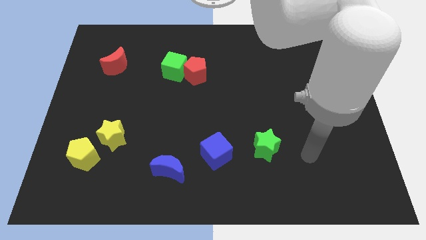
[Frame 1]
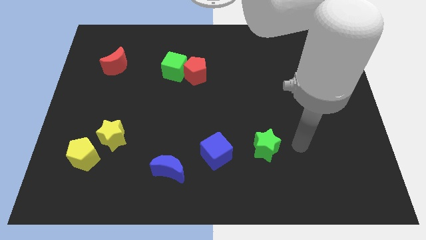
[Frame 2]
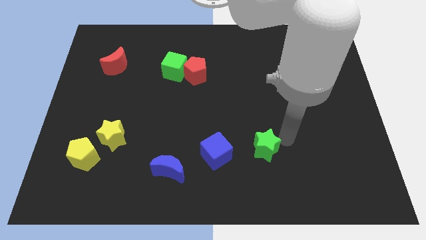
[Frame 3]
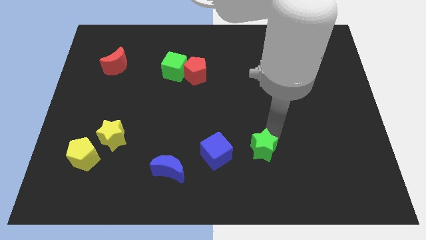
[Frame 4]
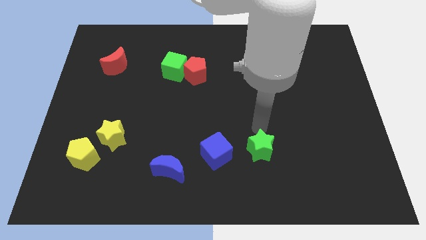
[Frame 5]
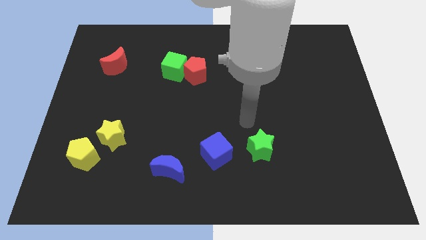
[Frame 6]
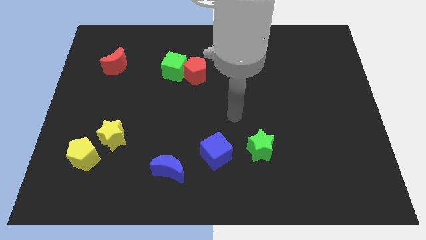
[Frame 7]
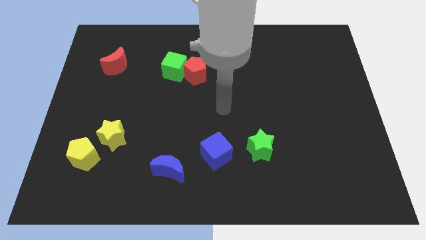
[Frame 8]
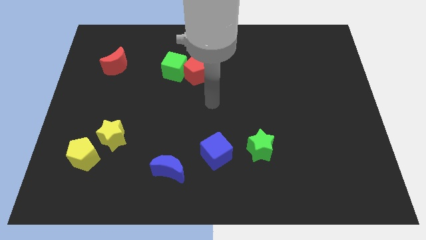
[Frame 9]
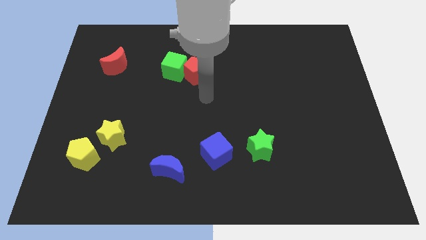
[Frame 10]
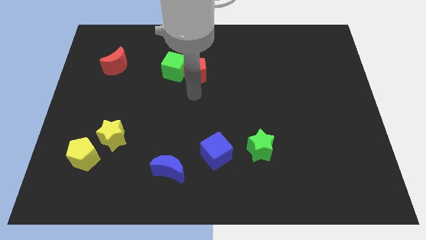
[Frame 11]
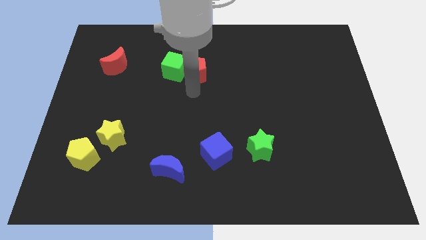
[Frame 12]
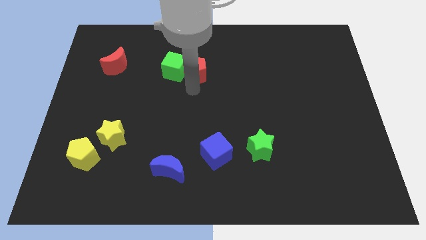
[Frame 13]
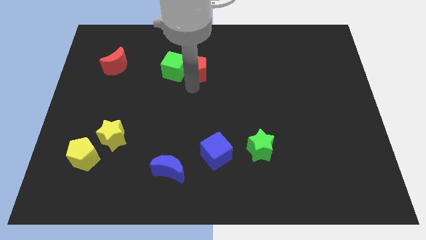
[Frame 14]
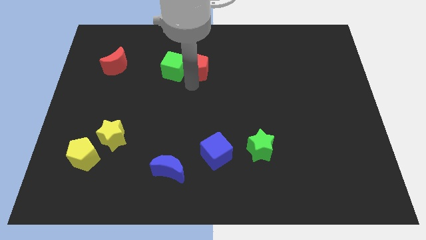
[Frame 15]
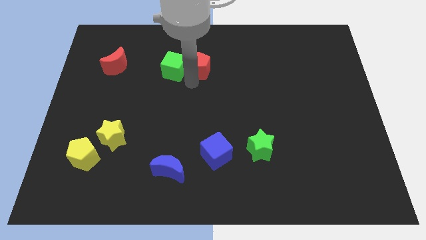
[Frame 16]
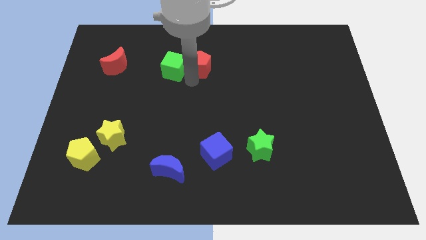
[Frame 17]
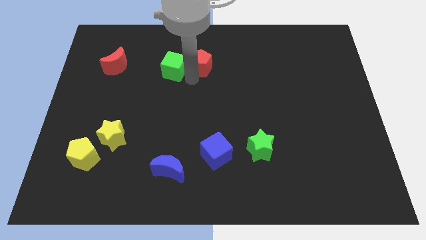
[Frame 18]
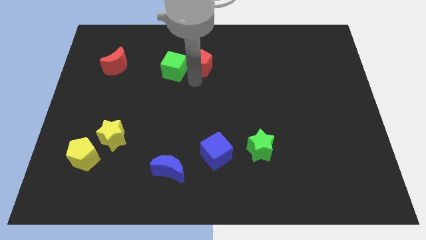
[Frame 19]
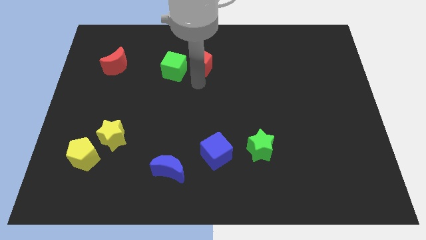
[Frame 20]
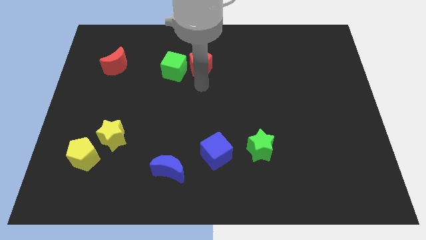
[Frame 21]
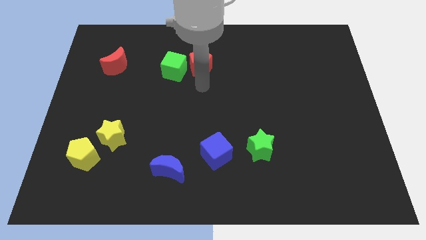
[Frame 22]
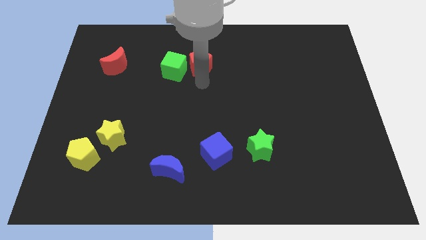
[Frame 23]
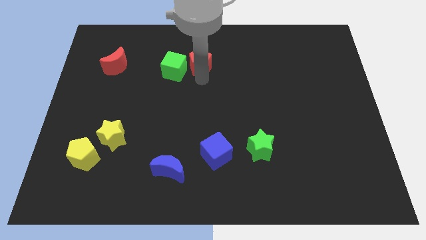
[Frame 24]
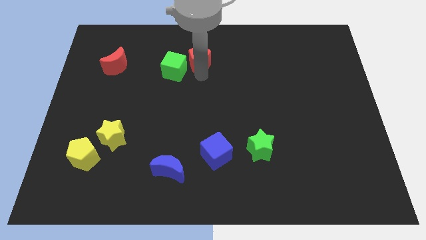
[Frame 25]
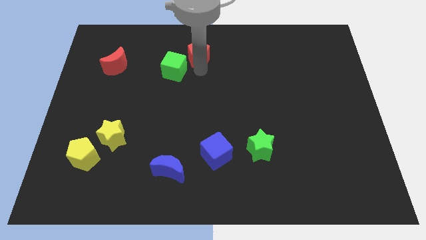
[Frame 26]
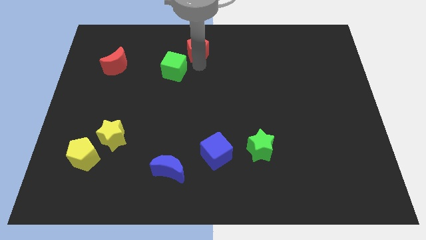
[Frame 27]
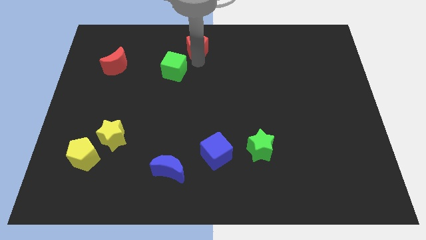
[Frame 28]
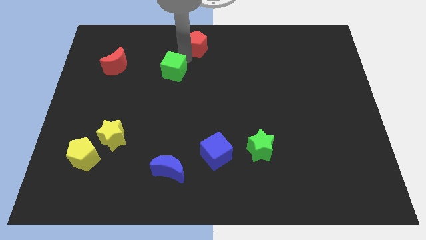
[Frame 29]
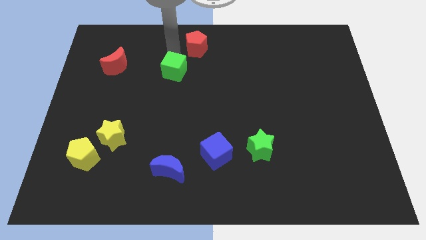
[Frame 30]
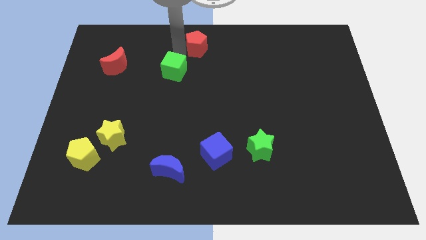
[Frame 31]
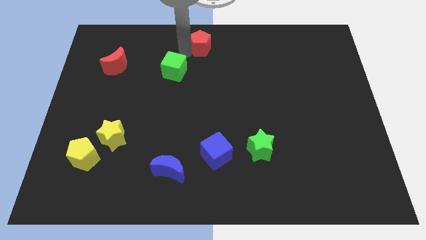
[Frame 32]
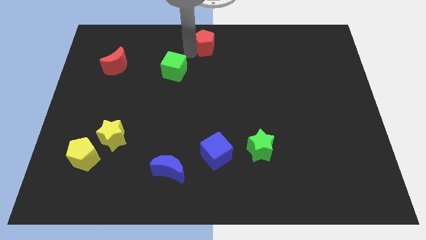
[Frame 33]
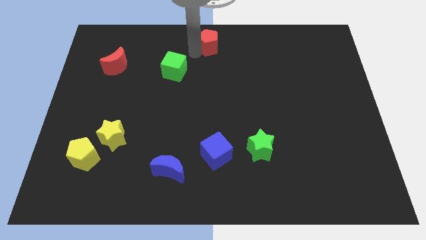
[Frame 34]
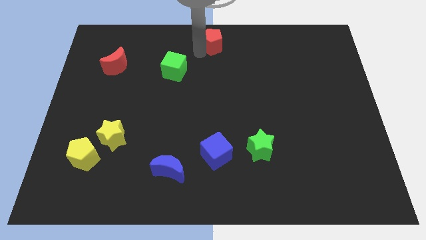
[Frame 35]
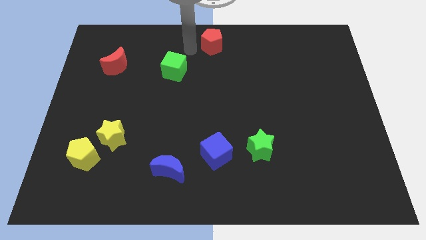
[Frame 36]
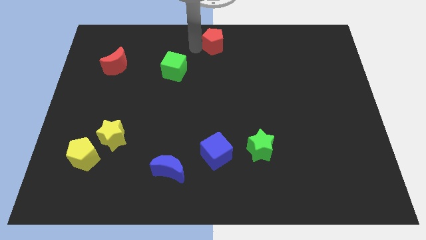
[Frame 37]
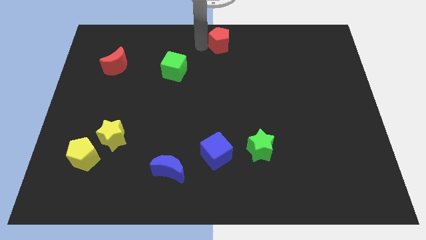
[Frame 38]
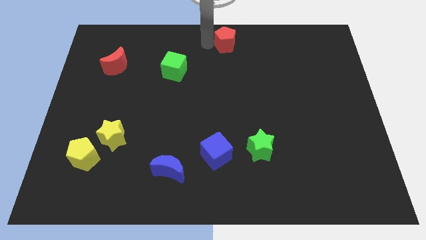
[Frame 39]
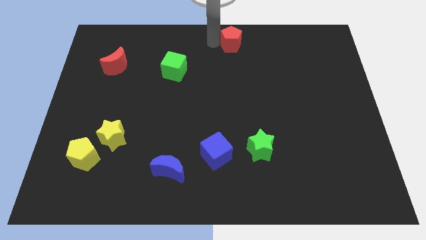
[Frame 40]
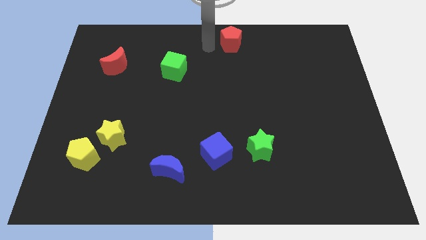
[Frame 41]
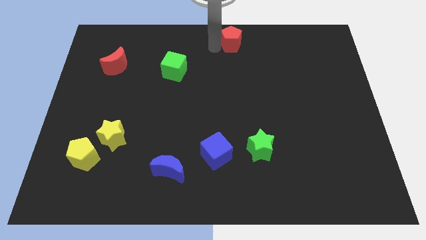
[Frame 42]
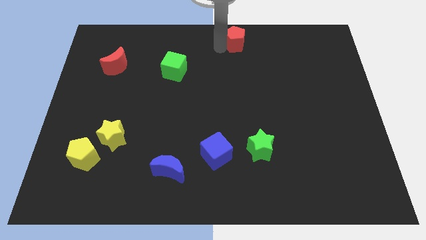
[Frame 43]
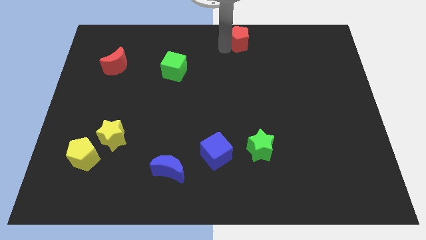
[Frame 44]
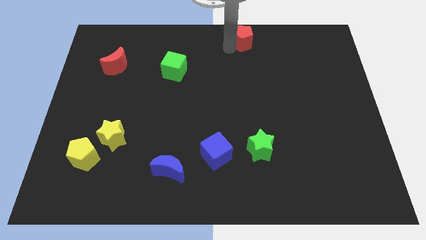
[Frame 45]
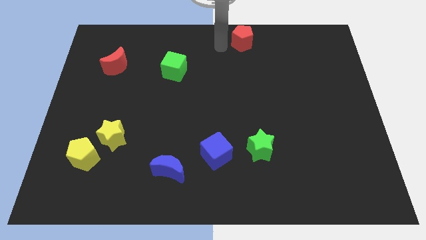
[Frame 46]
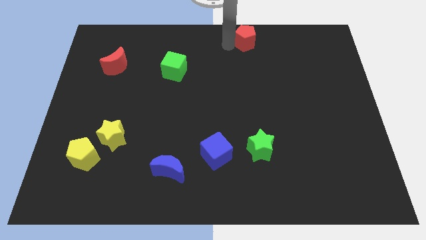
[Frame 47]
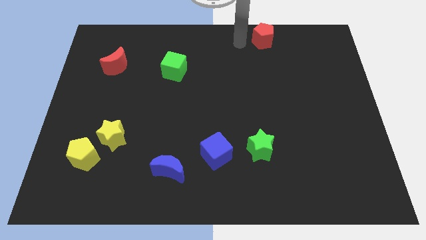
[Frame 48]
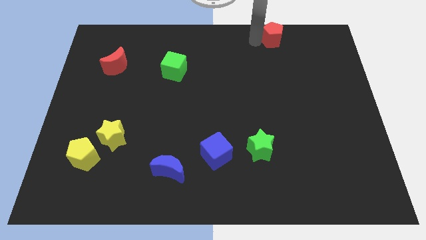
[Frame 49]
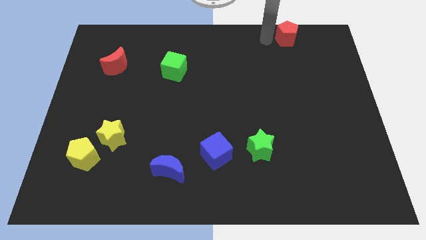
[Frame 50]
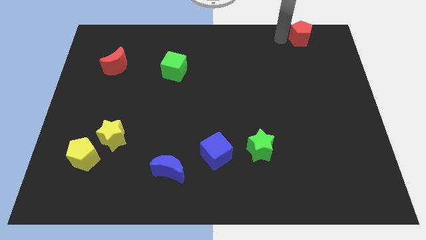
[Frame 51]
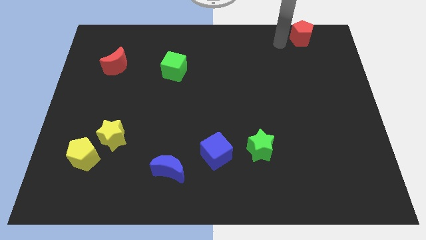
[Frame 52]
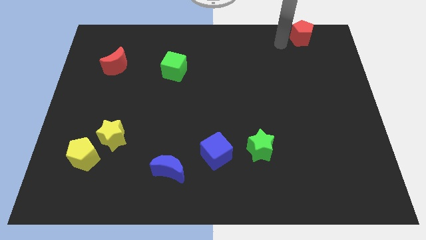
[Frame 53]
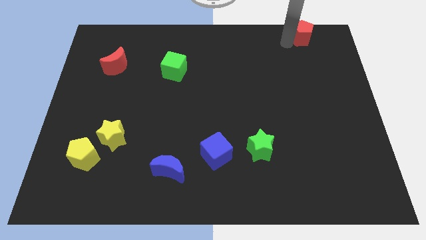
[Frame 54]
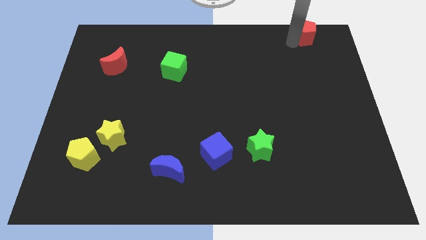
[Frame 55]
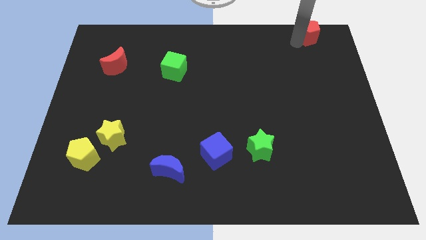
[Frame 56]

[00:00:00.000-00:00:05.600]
push the red pentagon to the top right of the board
